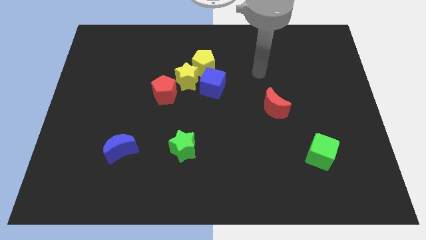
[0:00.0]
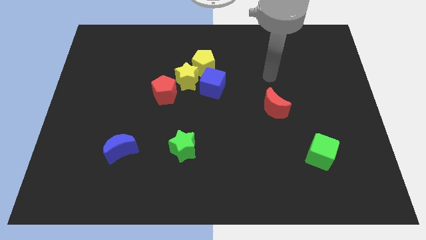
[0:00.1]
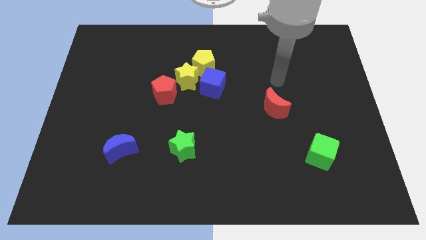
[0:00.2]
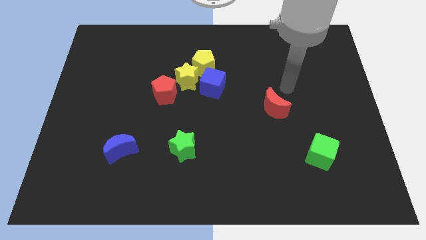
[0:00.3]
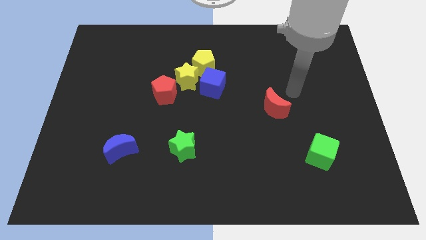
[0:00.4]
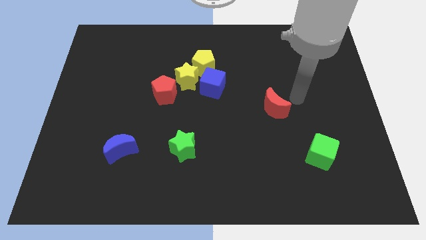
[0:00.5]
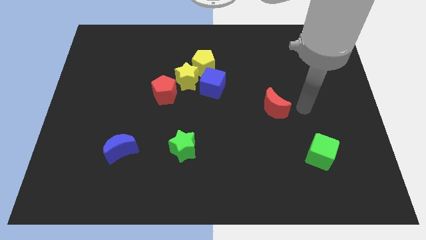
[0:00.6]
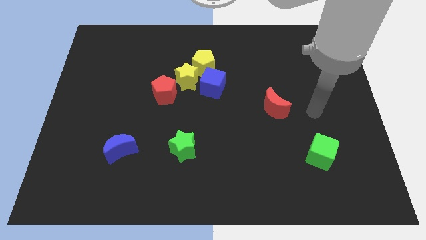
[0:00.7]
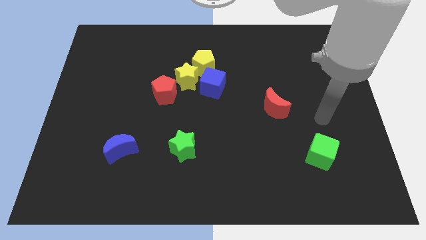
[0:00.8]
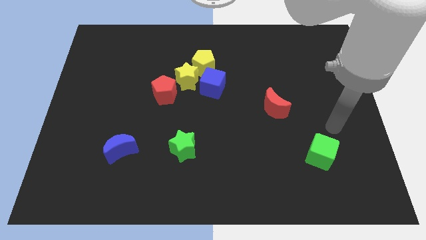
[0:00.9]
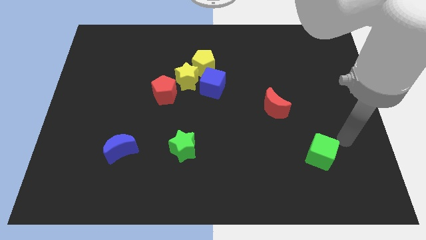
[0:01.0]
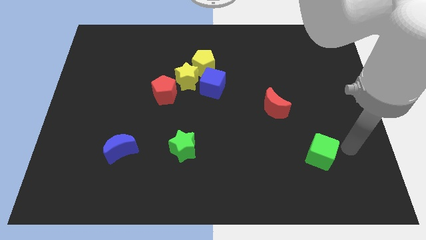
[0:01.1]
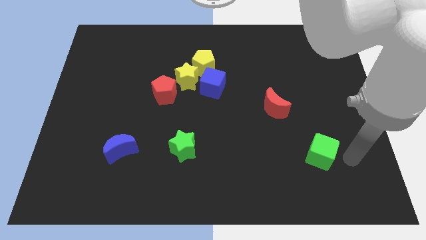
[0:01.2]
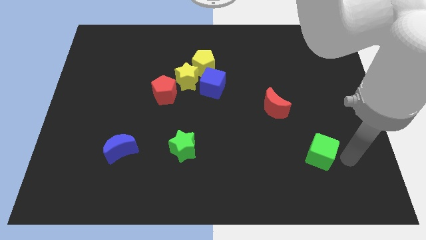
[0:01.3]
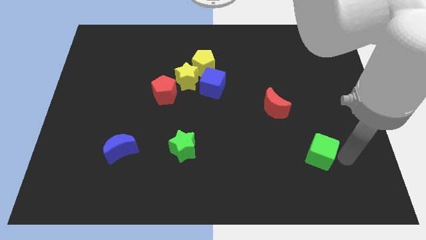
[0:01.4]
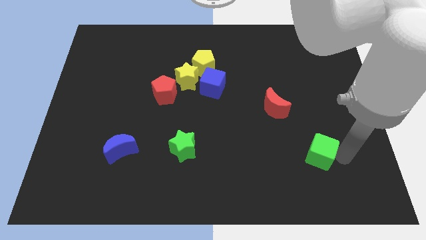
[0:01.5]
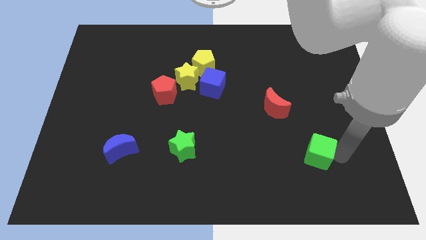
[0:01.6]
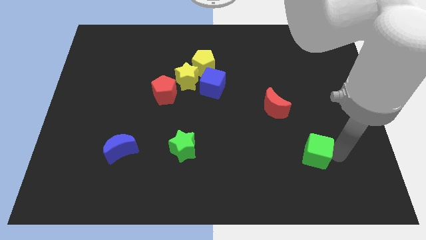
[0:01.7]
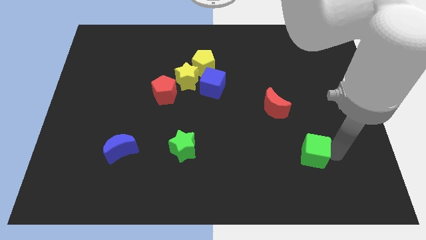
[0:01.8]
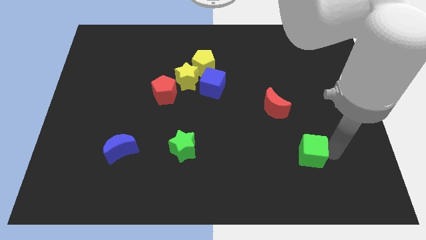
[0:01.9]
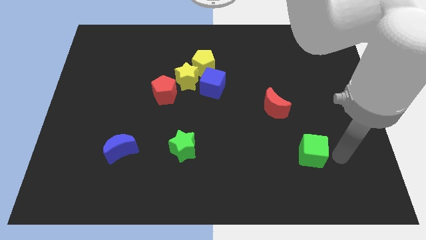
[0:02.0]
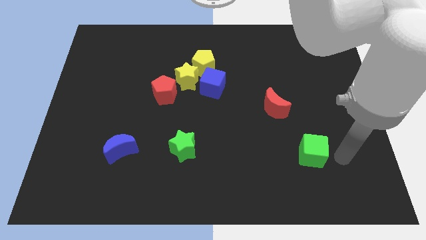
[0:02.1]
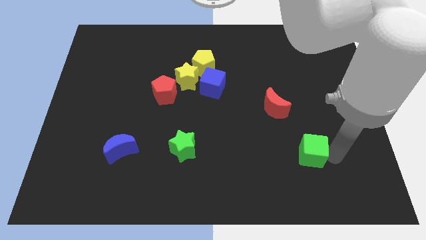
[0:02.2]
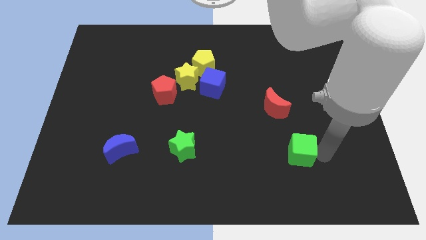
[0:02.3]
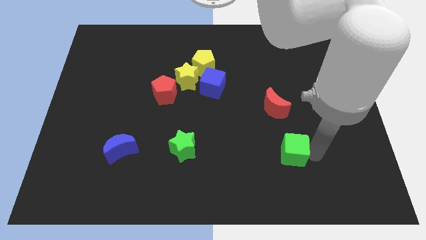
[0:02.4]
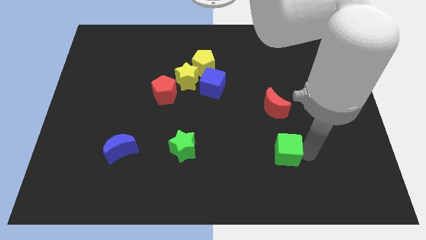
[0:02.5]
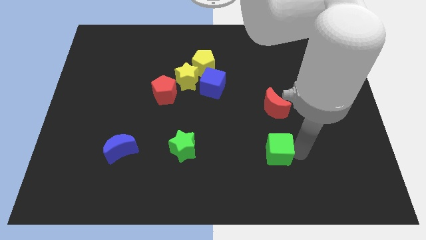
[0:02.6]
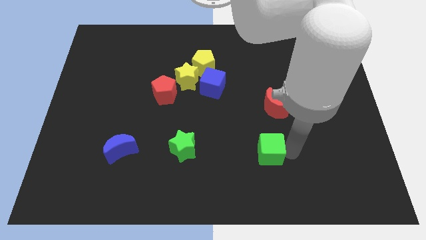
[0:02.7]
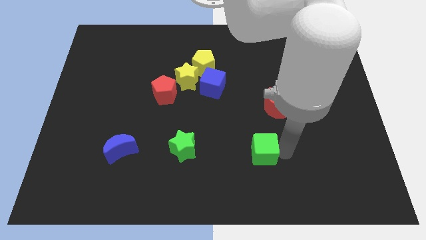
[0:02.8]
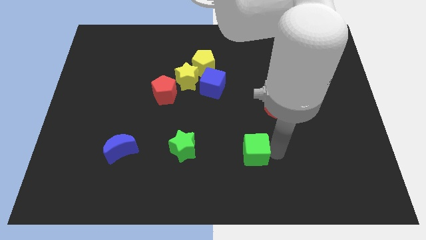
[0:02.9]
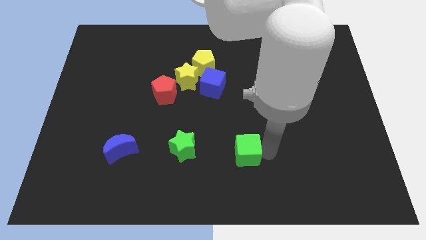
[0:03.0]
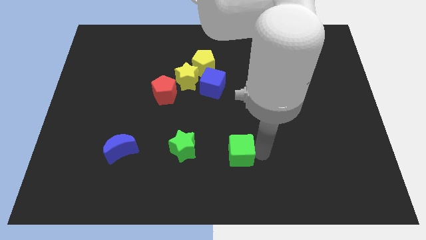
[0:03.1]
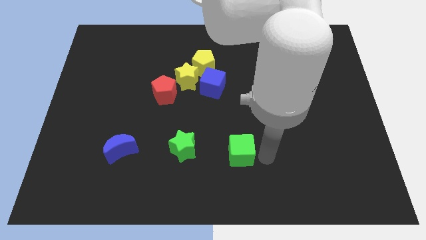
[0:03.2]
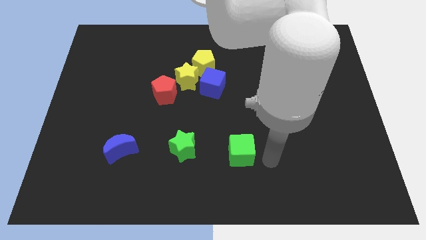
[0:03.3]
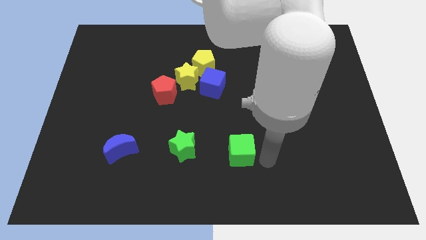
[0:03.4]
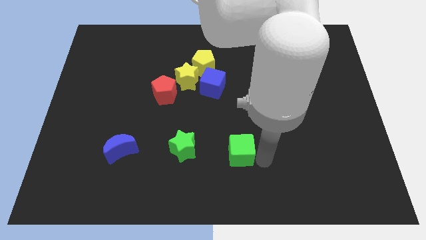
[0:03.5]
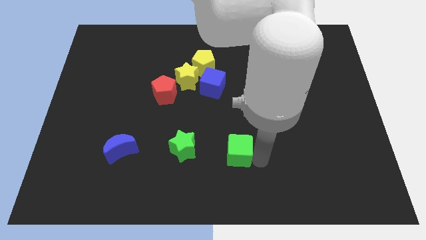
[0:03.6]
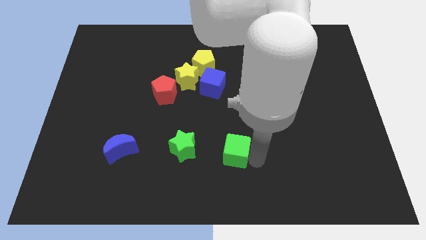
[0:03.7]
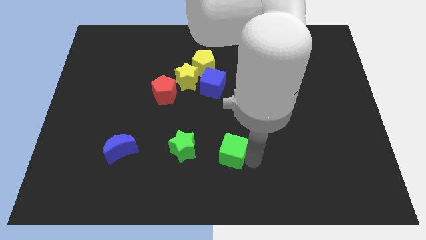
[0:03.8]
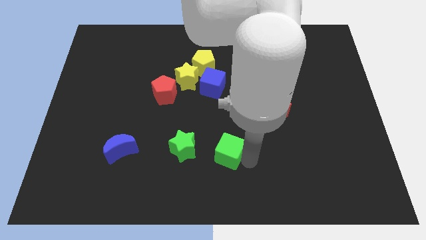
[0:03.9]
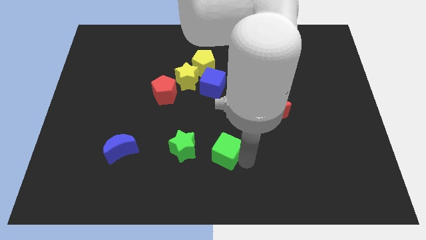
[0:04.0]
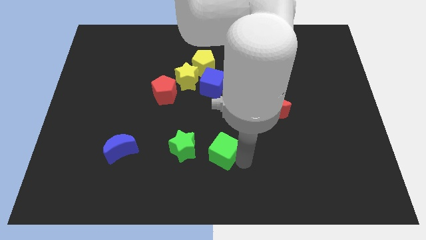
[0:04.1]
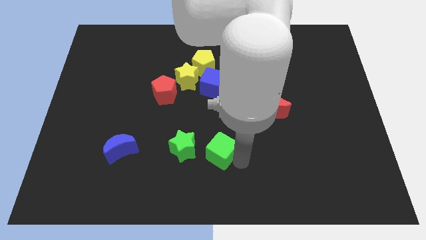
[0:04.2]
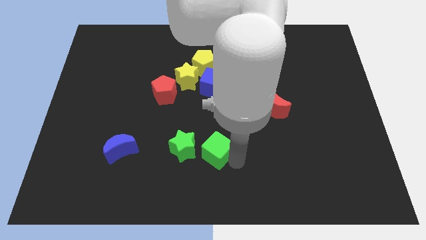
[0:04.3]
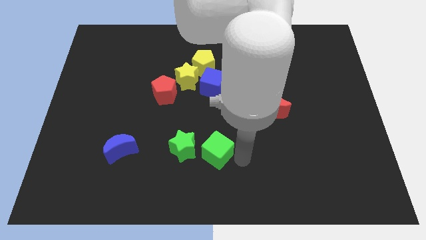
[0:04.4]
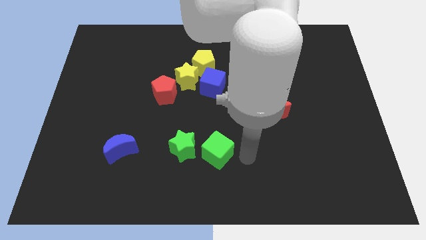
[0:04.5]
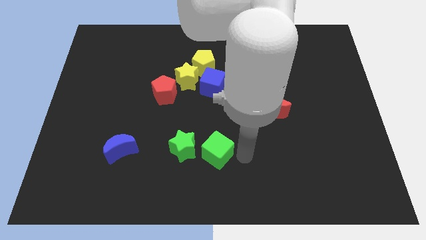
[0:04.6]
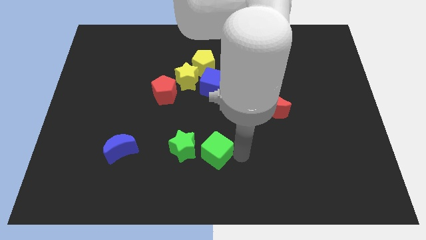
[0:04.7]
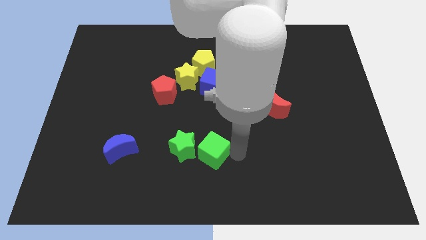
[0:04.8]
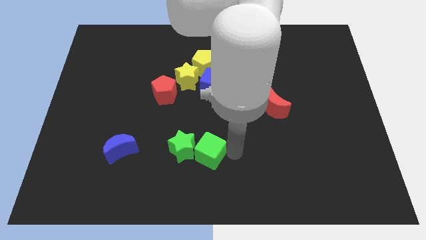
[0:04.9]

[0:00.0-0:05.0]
push the green cube close to the green star

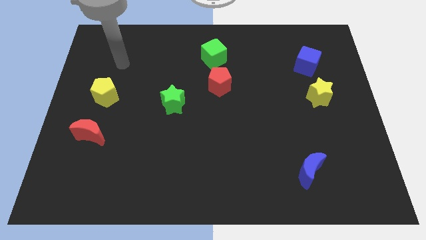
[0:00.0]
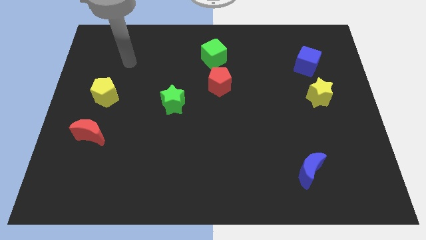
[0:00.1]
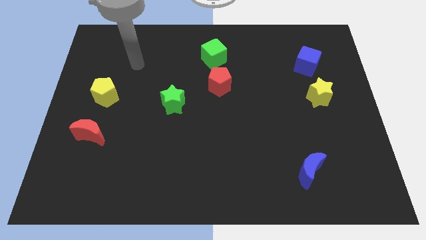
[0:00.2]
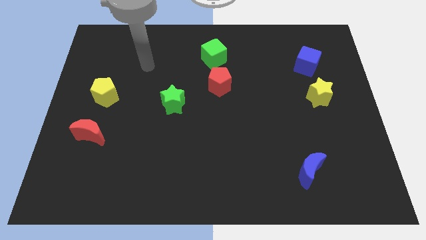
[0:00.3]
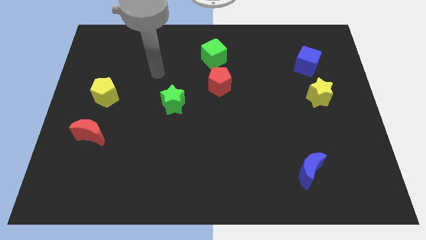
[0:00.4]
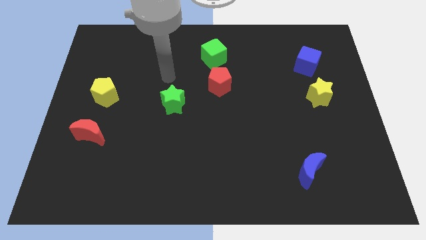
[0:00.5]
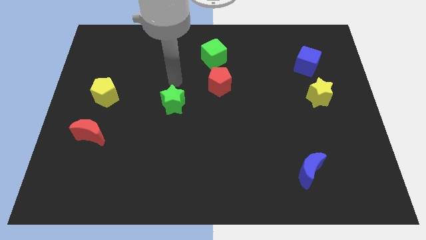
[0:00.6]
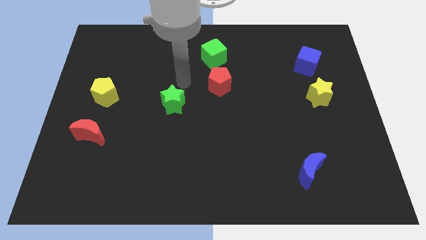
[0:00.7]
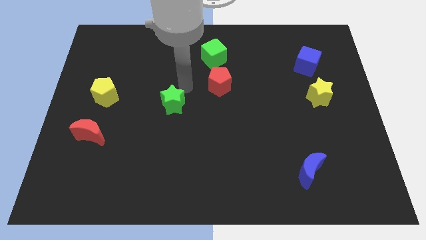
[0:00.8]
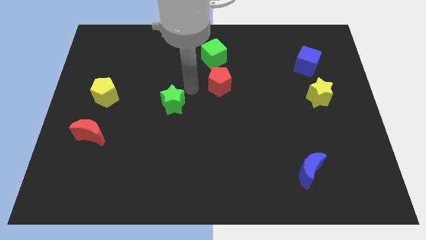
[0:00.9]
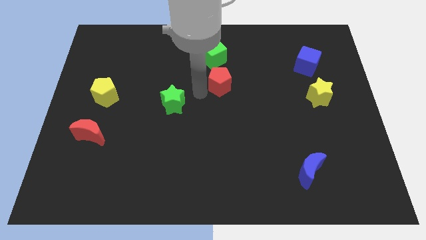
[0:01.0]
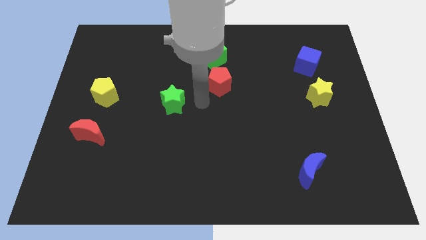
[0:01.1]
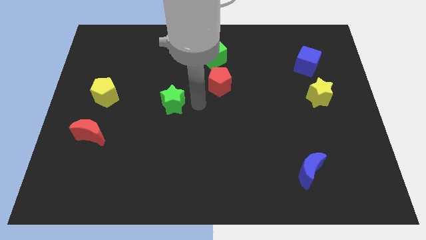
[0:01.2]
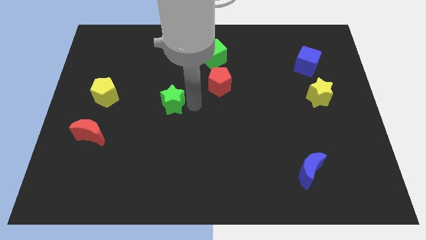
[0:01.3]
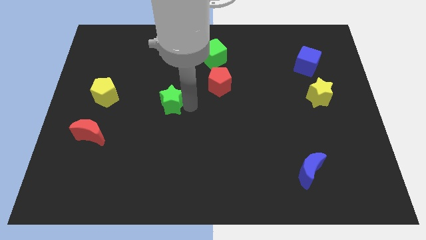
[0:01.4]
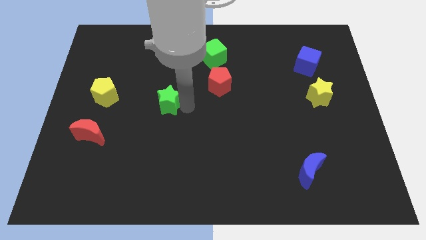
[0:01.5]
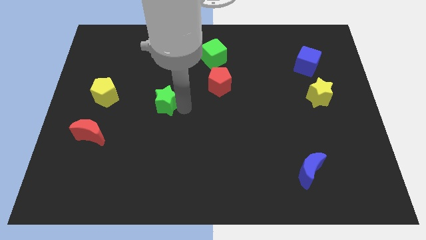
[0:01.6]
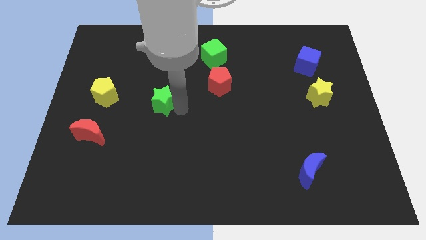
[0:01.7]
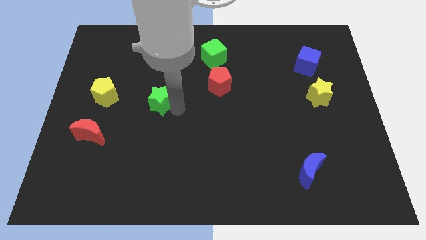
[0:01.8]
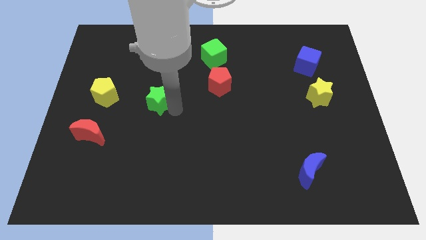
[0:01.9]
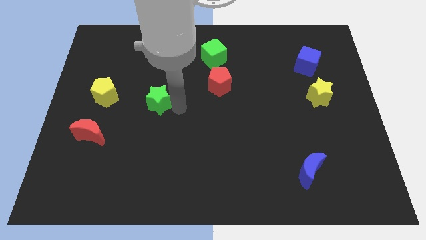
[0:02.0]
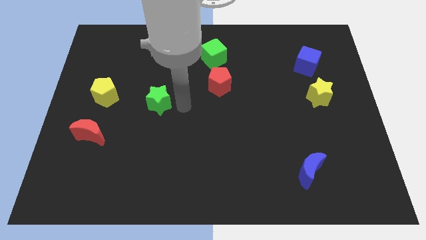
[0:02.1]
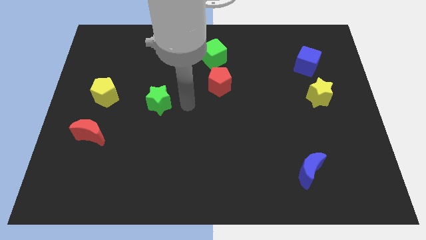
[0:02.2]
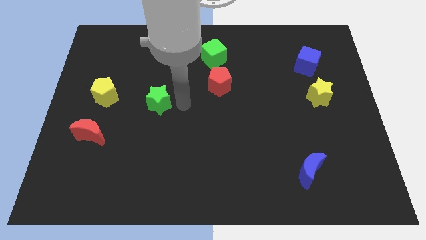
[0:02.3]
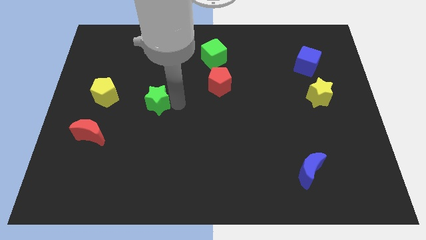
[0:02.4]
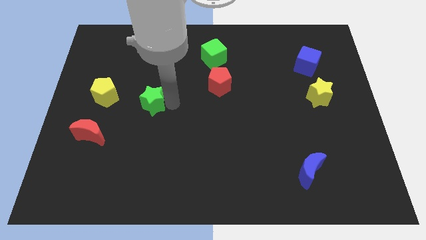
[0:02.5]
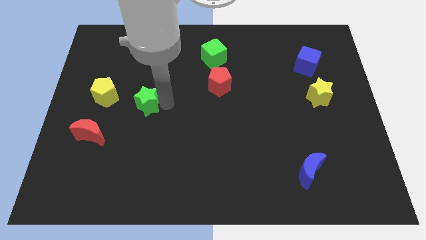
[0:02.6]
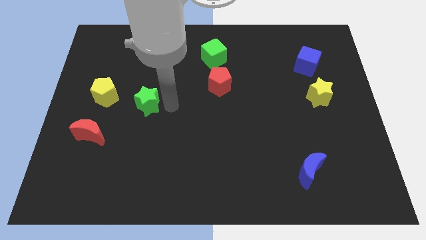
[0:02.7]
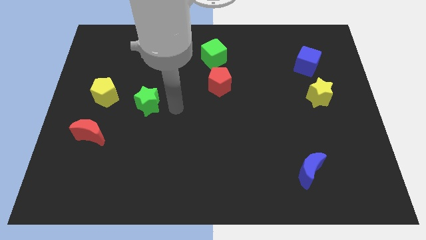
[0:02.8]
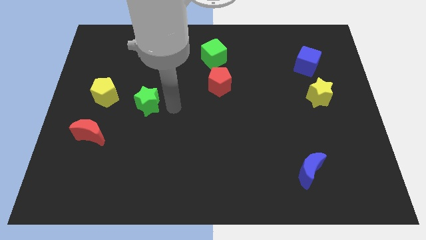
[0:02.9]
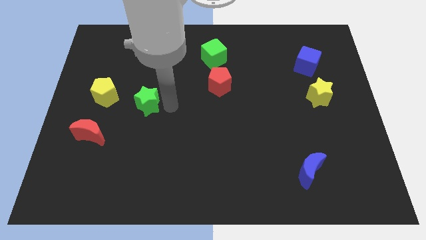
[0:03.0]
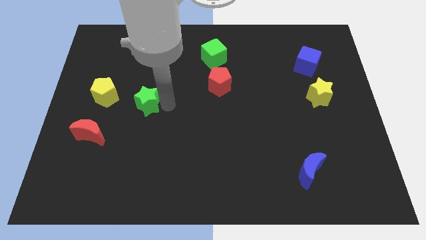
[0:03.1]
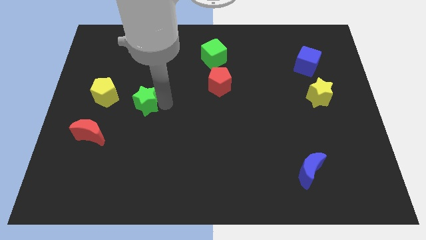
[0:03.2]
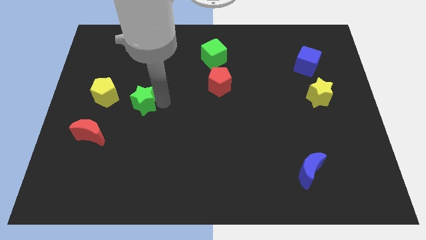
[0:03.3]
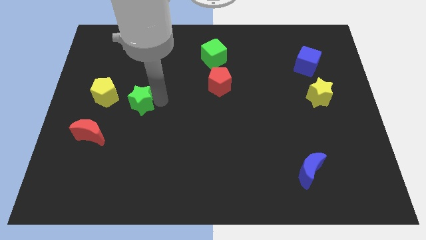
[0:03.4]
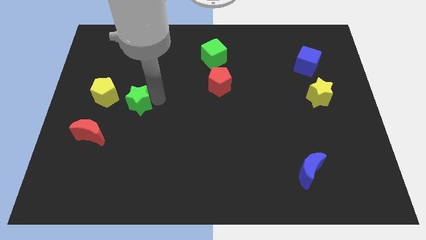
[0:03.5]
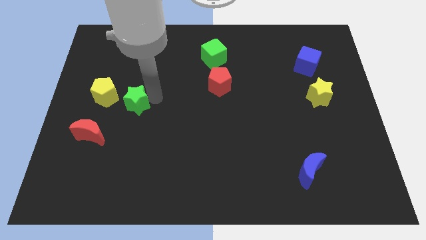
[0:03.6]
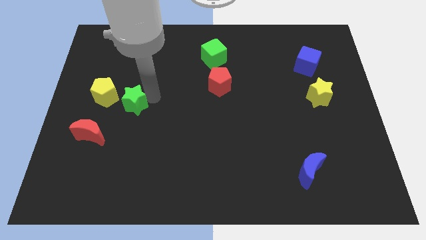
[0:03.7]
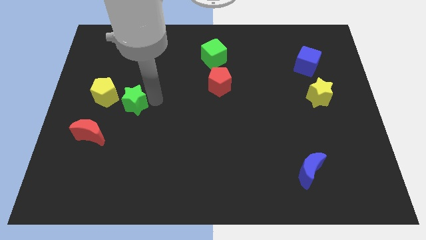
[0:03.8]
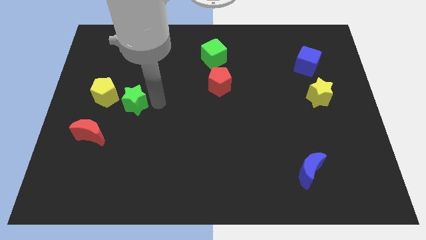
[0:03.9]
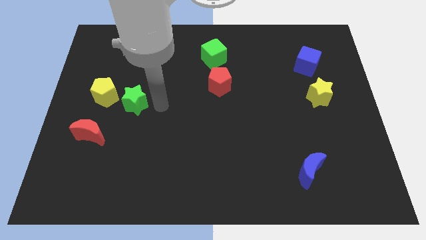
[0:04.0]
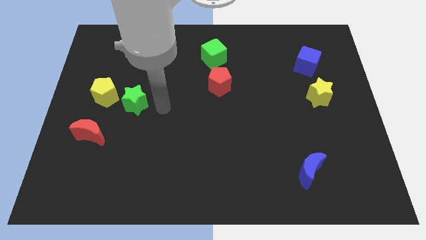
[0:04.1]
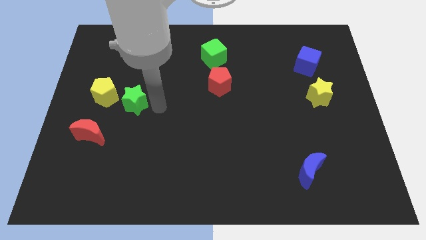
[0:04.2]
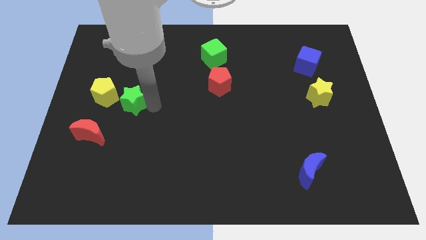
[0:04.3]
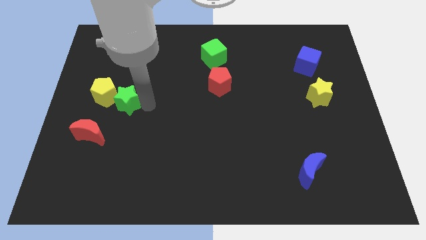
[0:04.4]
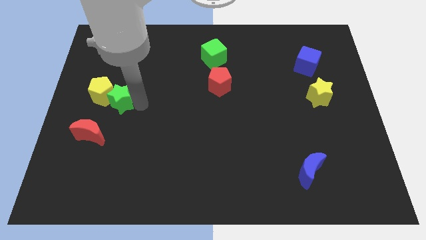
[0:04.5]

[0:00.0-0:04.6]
move the green star close to the yellow pentagon
